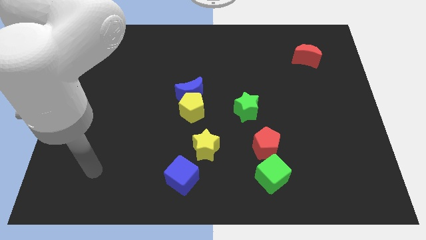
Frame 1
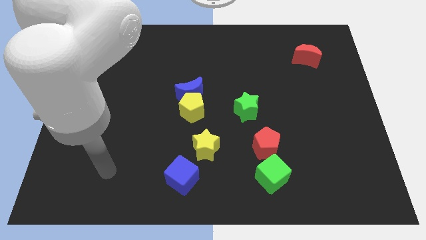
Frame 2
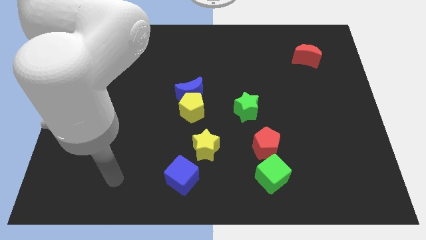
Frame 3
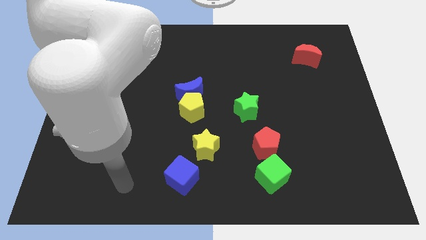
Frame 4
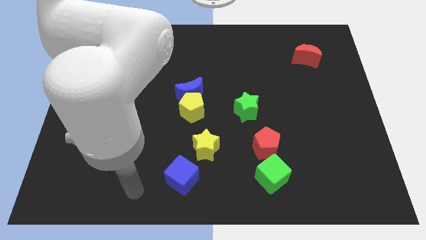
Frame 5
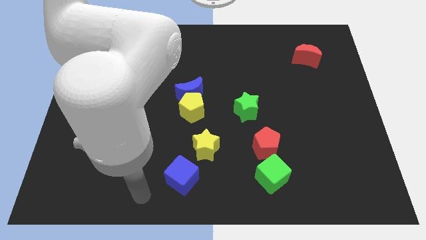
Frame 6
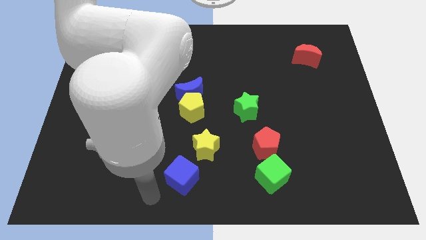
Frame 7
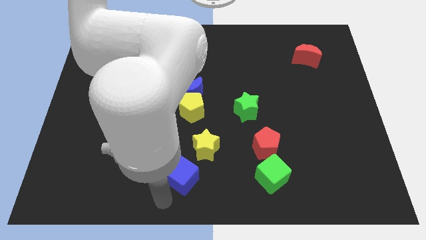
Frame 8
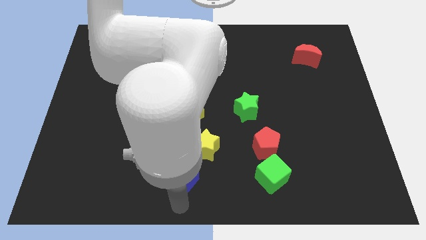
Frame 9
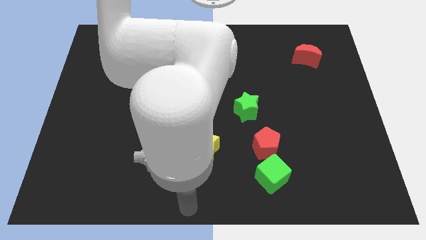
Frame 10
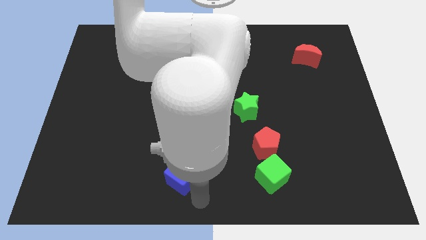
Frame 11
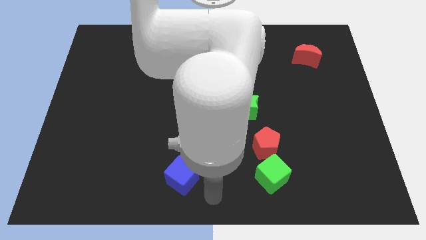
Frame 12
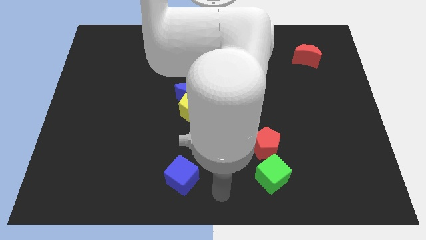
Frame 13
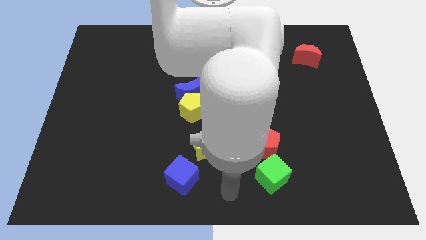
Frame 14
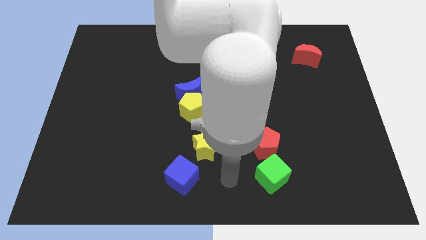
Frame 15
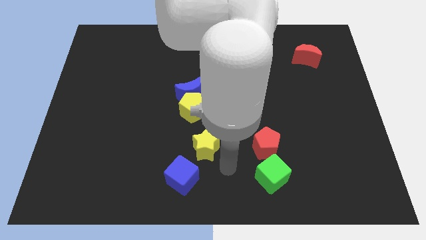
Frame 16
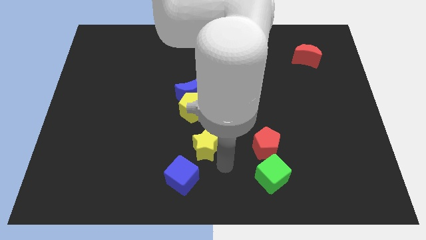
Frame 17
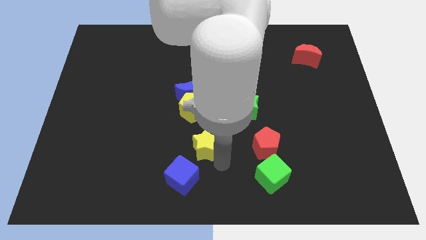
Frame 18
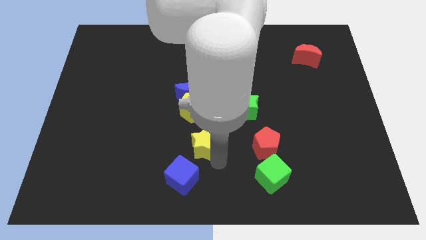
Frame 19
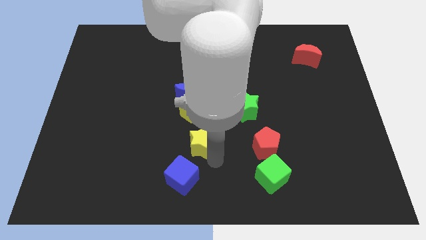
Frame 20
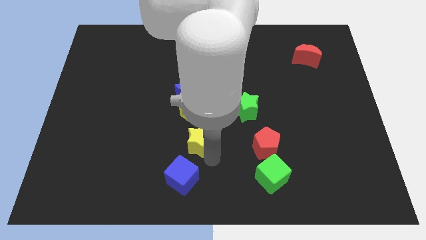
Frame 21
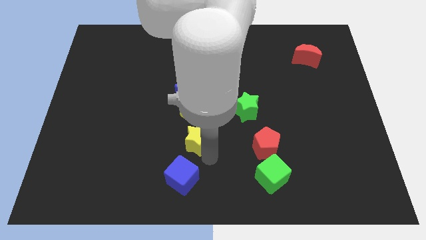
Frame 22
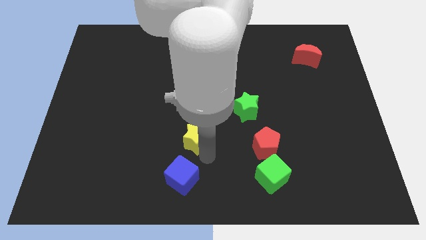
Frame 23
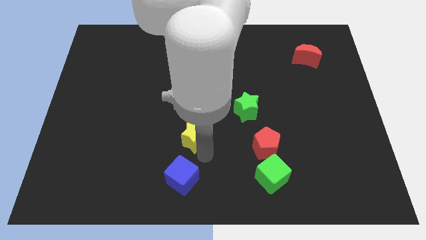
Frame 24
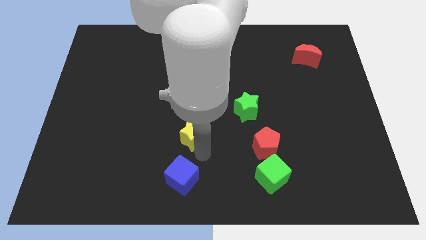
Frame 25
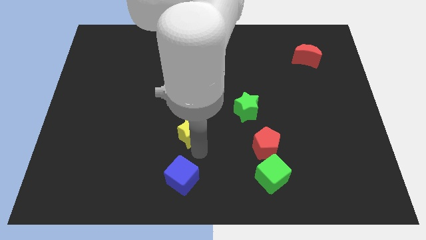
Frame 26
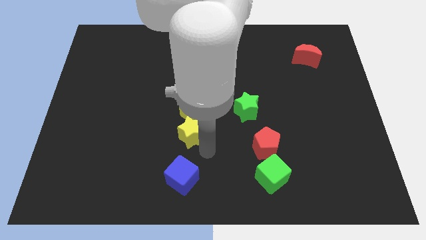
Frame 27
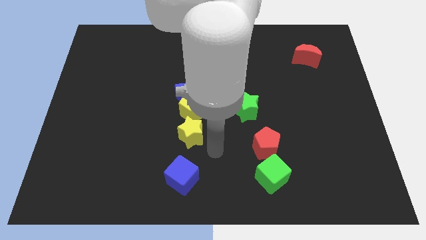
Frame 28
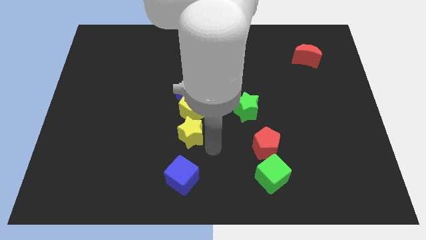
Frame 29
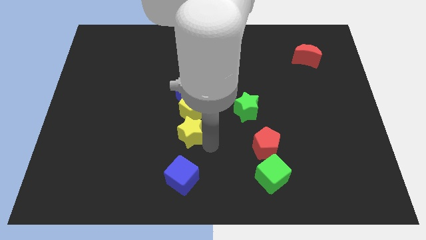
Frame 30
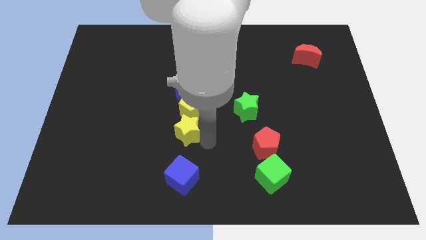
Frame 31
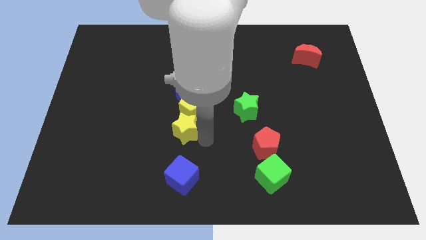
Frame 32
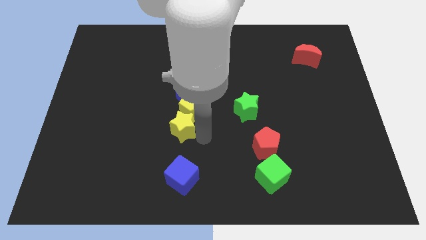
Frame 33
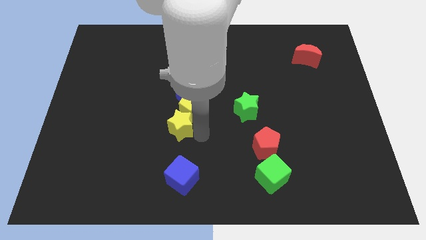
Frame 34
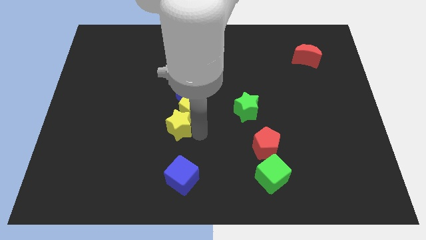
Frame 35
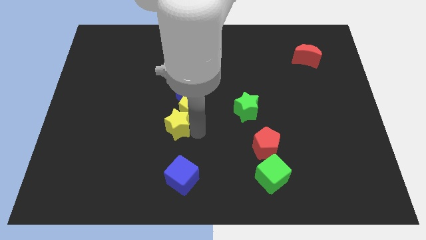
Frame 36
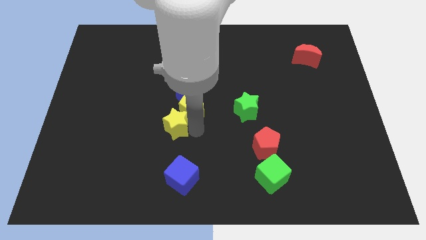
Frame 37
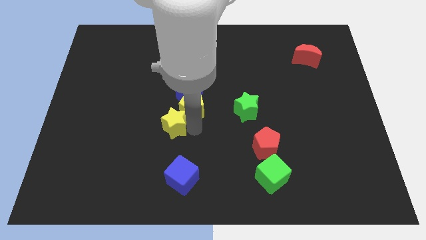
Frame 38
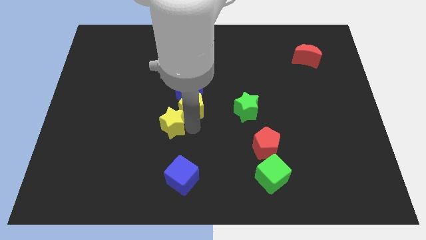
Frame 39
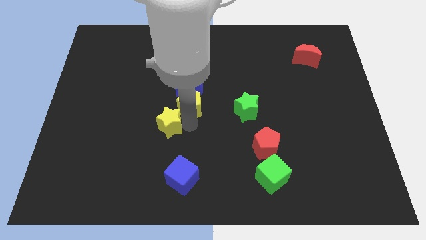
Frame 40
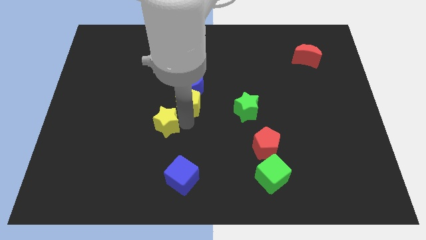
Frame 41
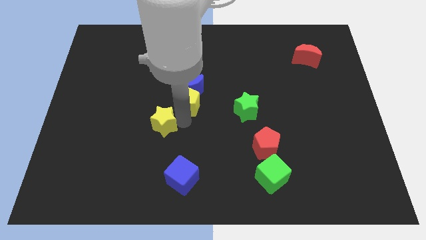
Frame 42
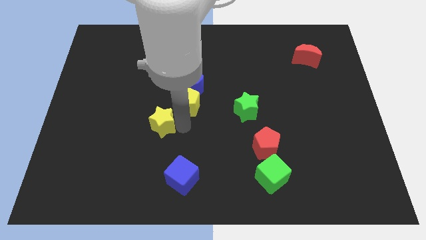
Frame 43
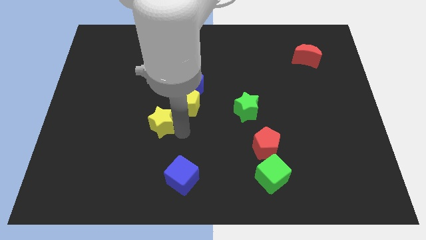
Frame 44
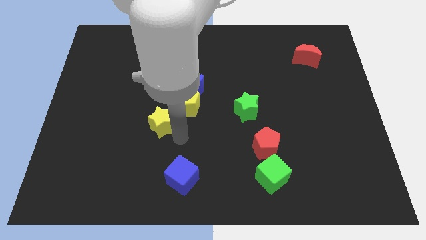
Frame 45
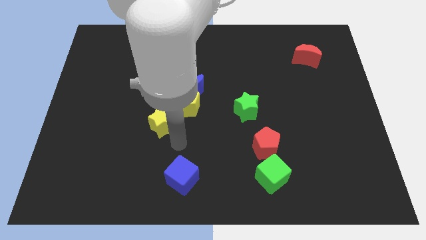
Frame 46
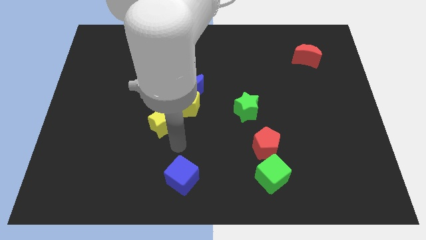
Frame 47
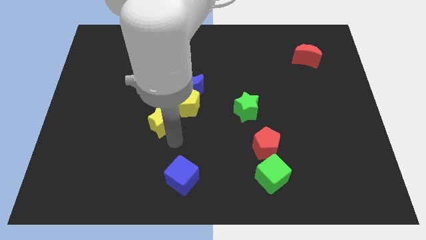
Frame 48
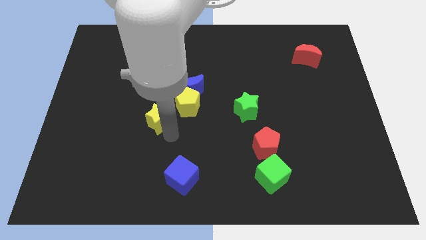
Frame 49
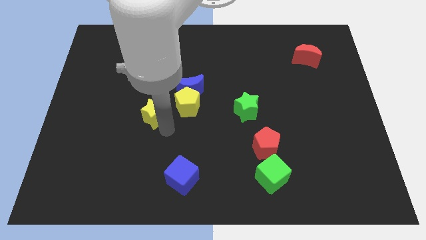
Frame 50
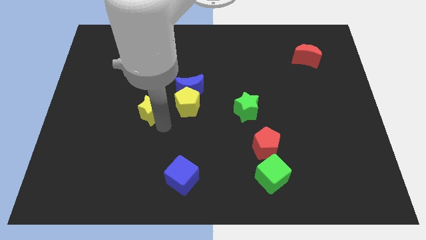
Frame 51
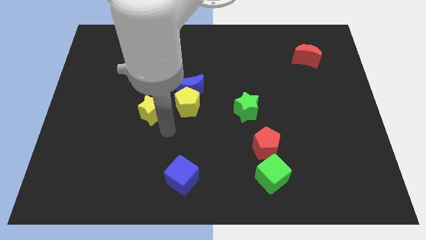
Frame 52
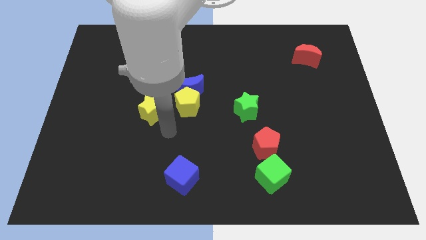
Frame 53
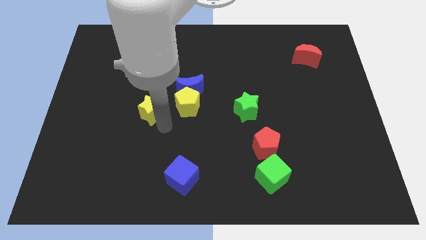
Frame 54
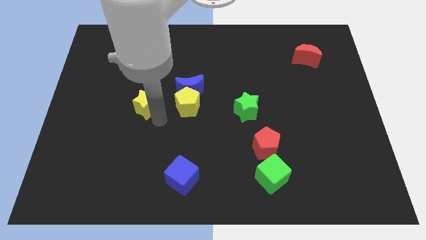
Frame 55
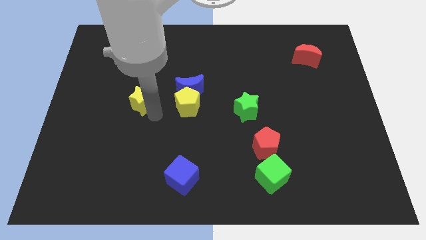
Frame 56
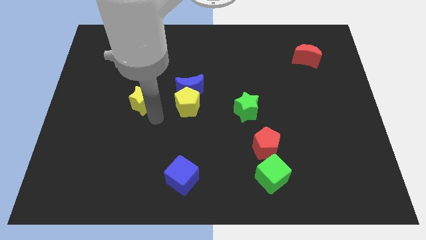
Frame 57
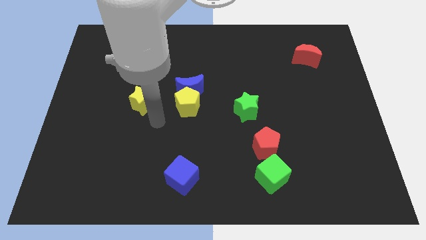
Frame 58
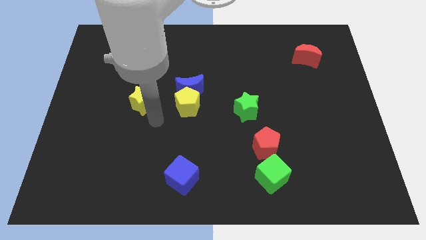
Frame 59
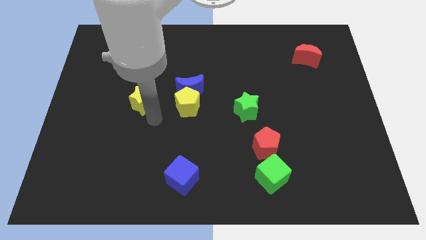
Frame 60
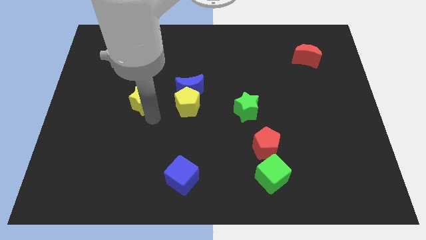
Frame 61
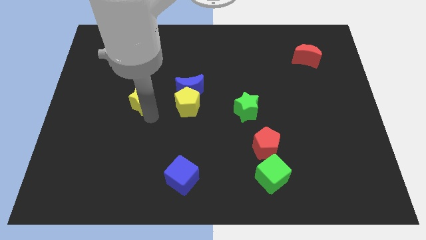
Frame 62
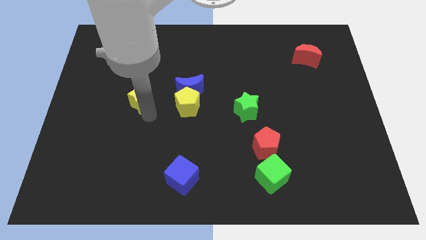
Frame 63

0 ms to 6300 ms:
push the yellow star diagonally up and left

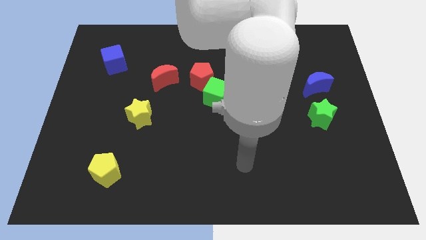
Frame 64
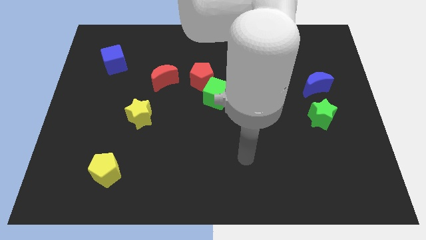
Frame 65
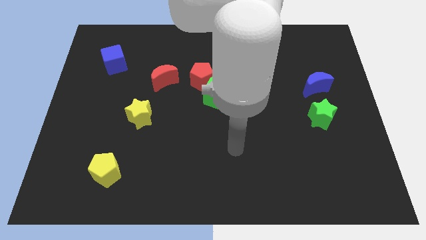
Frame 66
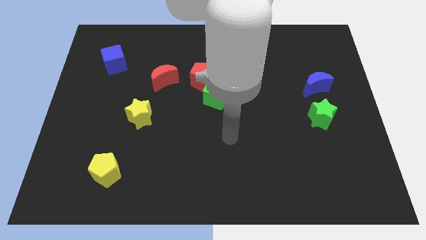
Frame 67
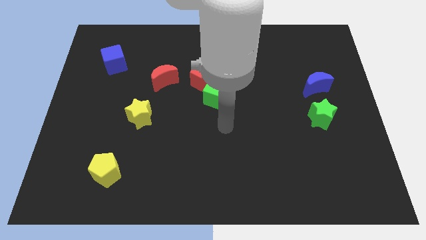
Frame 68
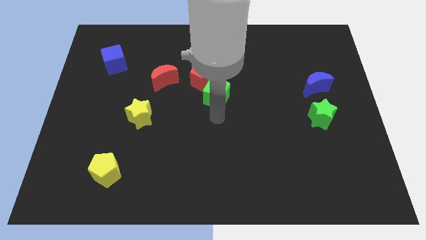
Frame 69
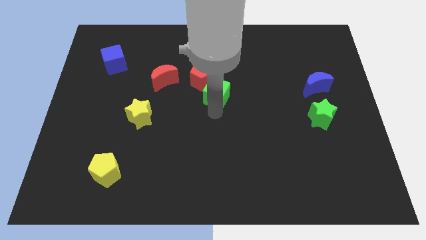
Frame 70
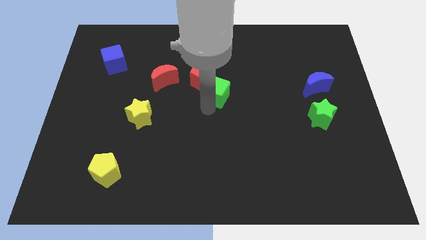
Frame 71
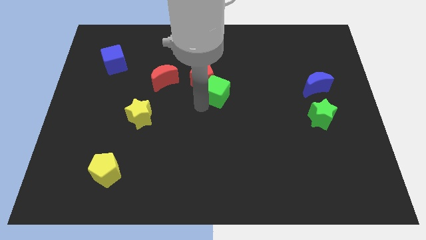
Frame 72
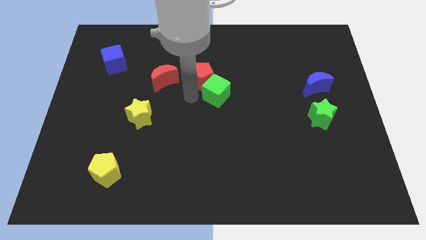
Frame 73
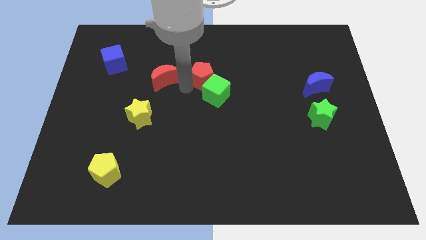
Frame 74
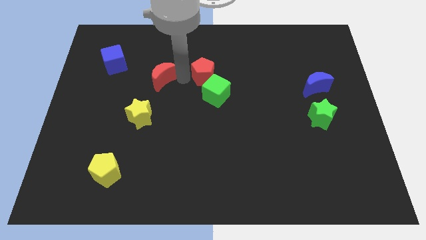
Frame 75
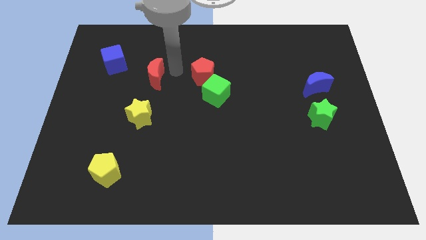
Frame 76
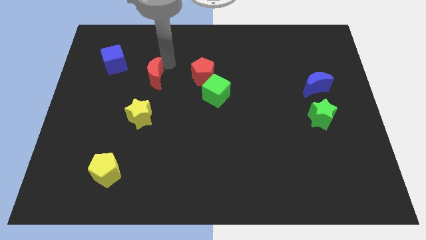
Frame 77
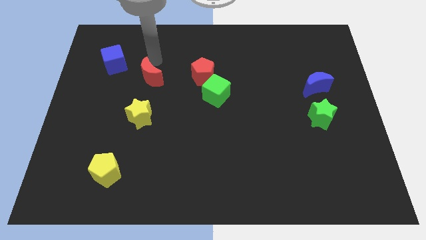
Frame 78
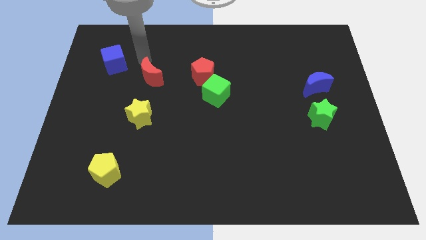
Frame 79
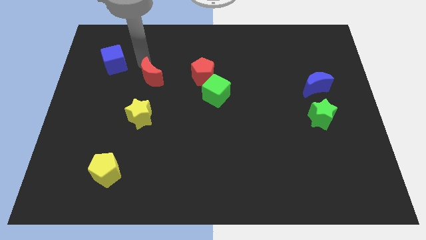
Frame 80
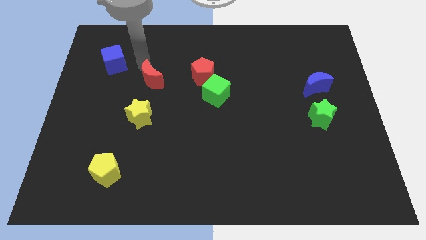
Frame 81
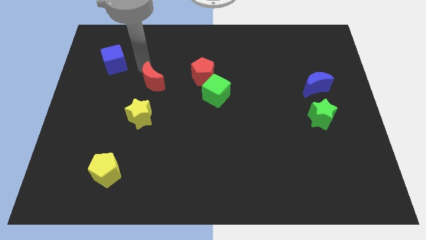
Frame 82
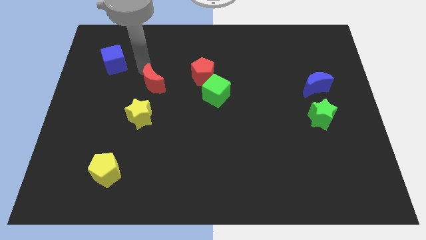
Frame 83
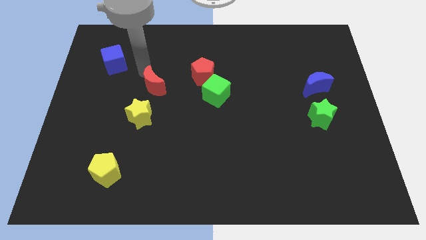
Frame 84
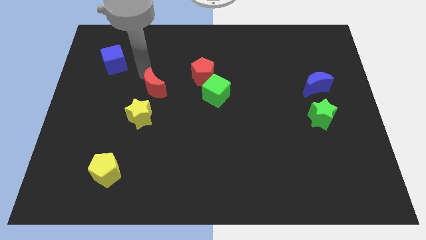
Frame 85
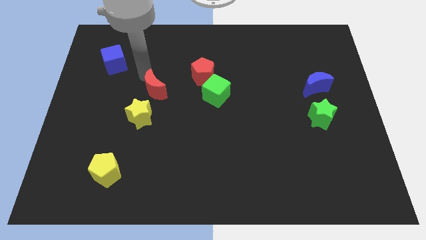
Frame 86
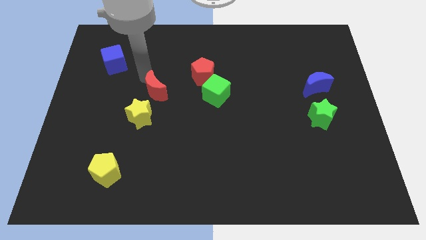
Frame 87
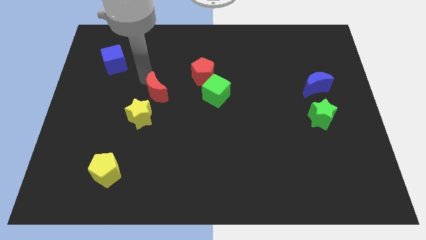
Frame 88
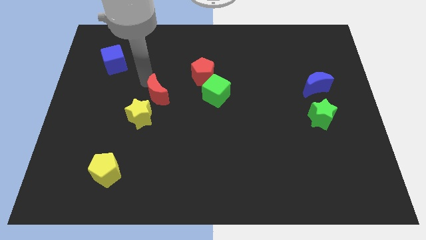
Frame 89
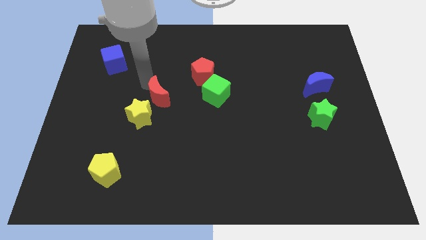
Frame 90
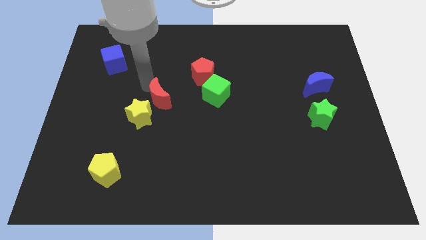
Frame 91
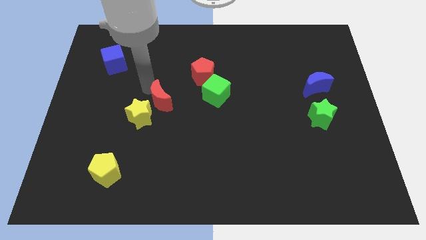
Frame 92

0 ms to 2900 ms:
slightly move the red moon down
